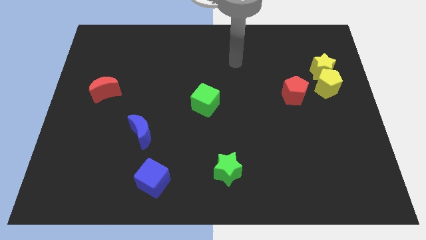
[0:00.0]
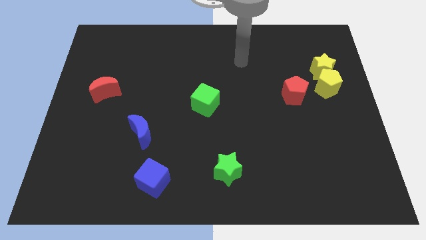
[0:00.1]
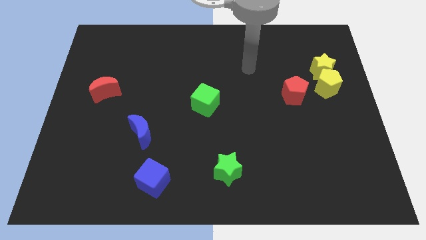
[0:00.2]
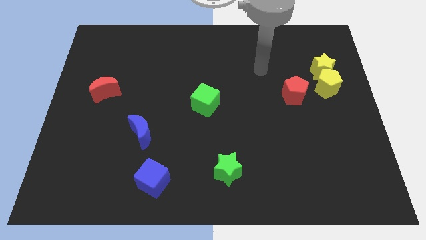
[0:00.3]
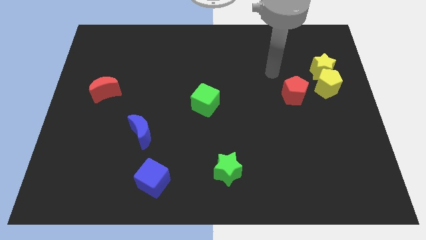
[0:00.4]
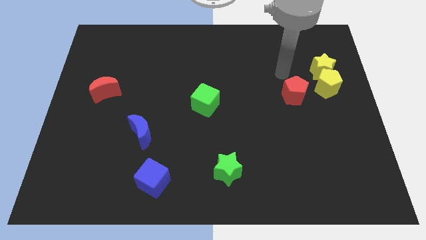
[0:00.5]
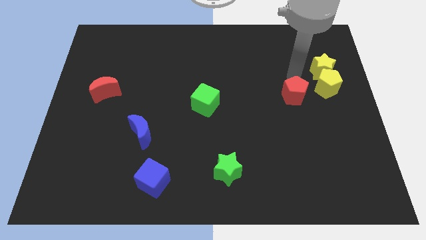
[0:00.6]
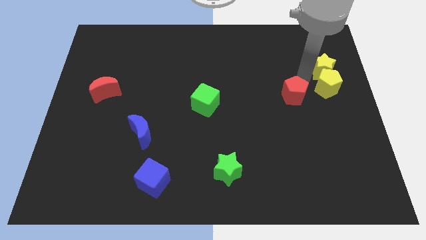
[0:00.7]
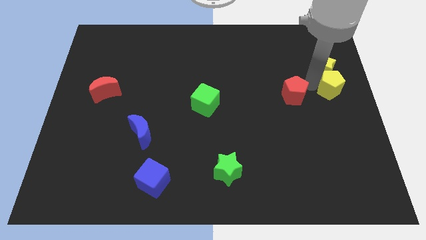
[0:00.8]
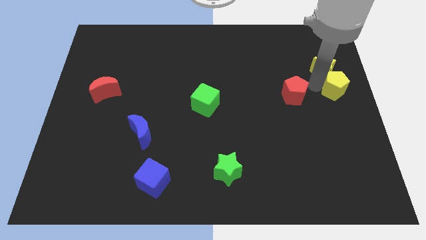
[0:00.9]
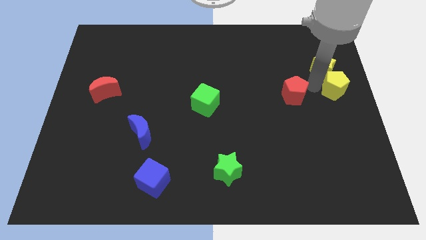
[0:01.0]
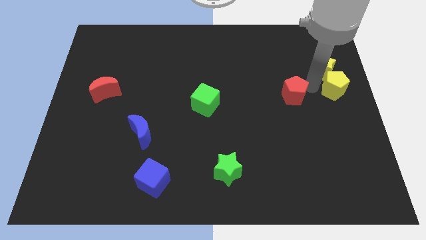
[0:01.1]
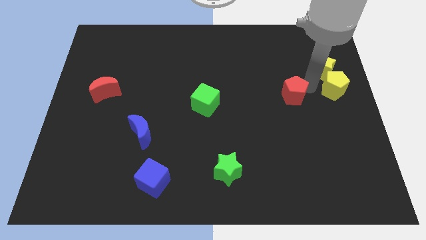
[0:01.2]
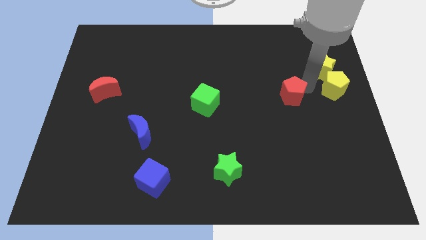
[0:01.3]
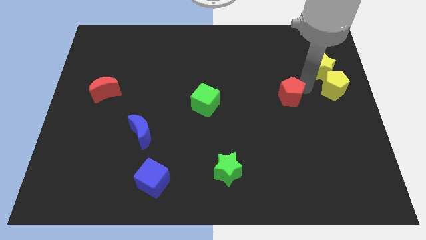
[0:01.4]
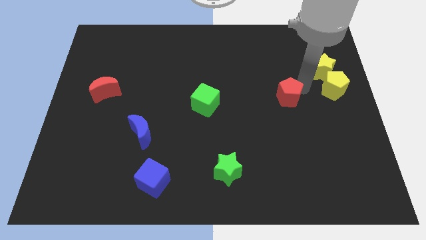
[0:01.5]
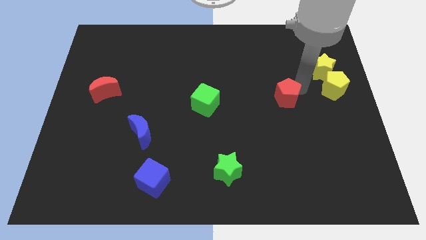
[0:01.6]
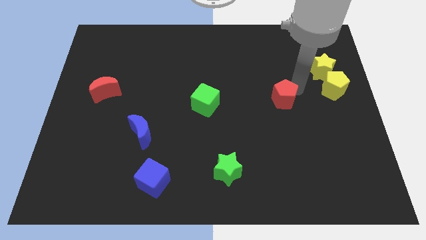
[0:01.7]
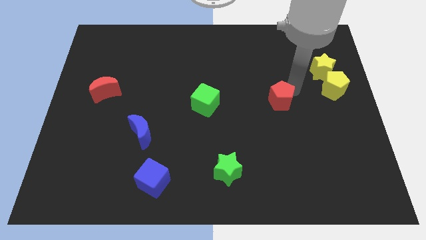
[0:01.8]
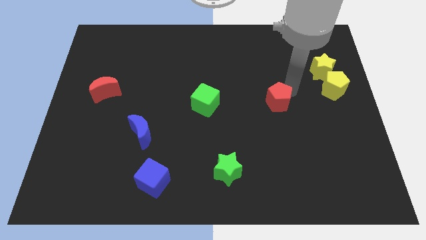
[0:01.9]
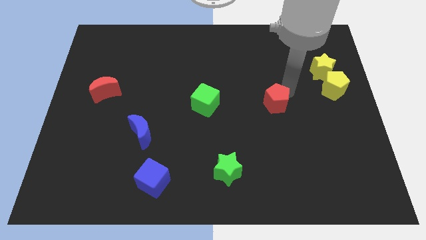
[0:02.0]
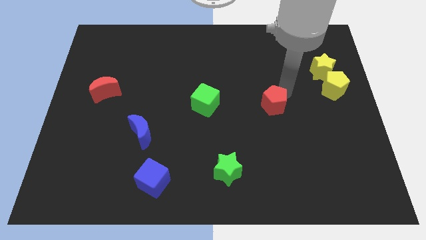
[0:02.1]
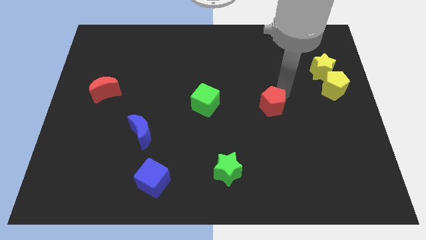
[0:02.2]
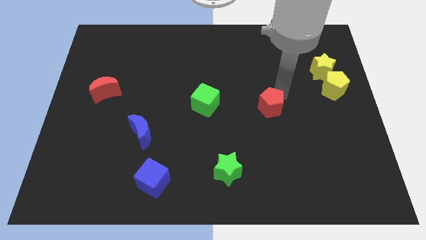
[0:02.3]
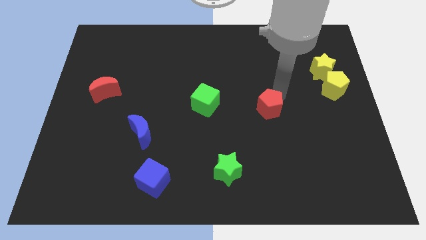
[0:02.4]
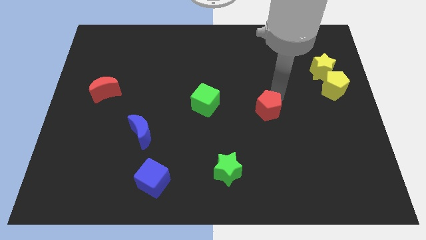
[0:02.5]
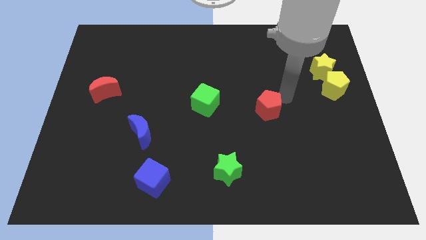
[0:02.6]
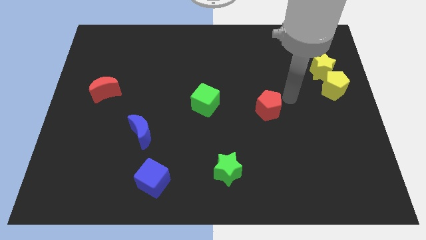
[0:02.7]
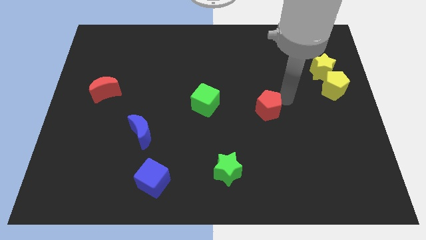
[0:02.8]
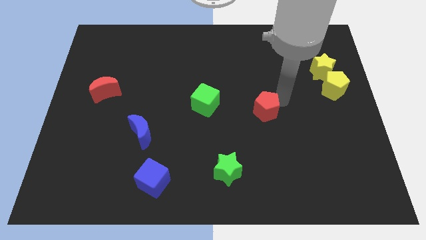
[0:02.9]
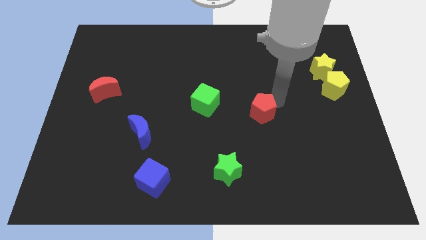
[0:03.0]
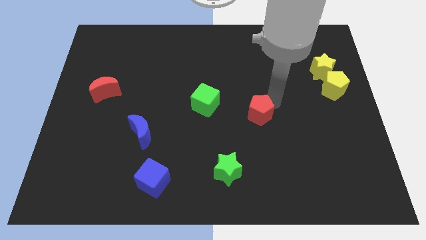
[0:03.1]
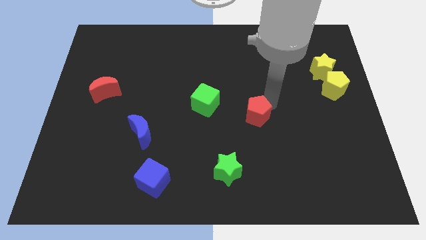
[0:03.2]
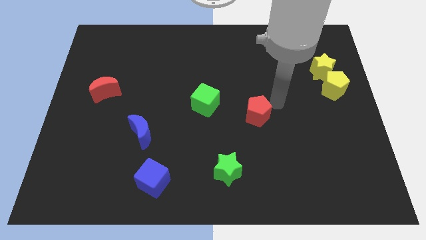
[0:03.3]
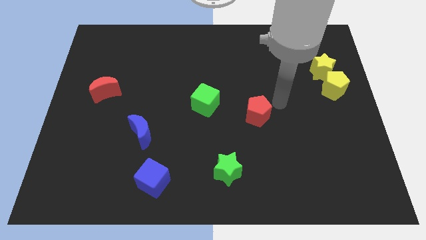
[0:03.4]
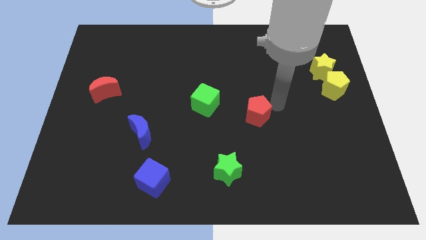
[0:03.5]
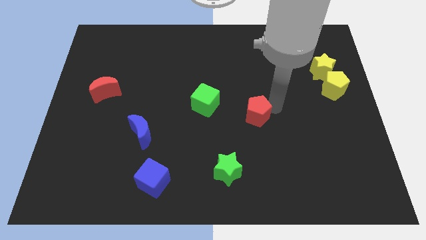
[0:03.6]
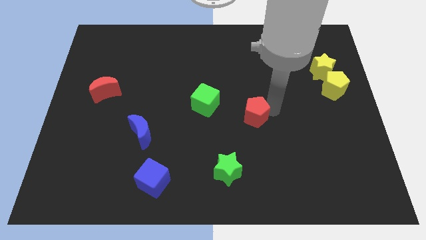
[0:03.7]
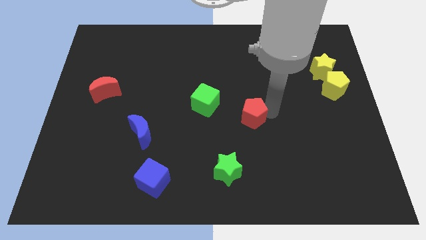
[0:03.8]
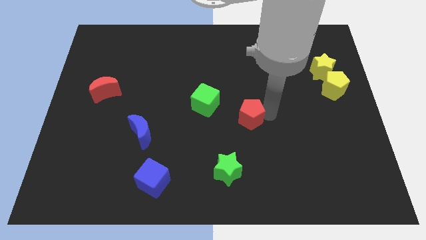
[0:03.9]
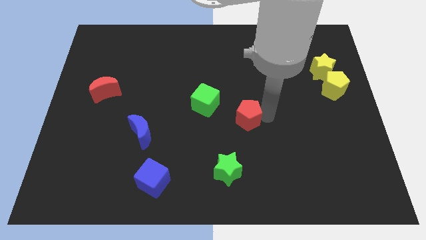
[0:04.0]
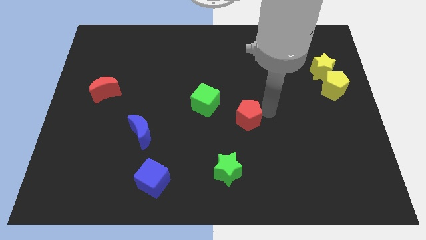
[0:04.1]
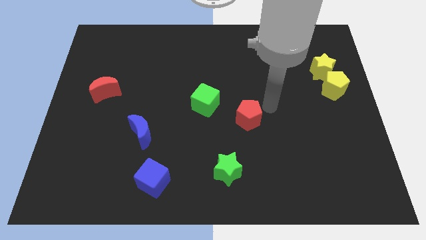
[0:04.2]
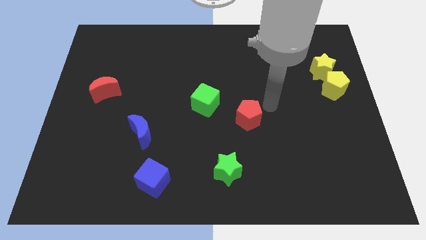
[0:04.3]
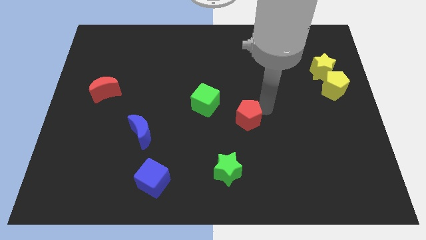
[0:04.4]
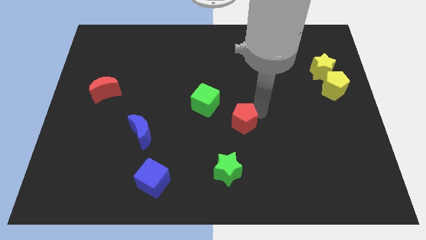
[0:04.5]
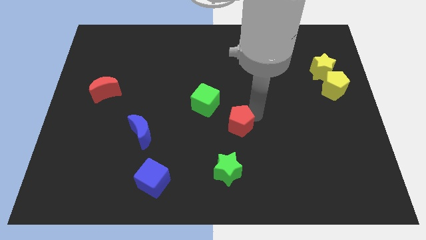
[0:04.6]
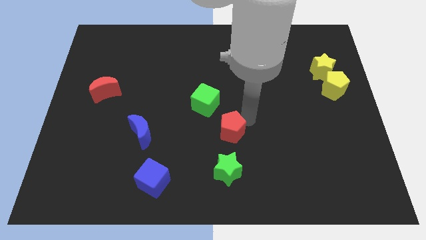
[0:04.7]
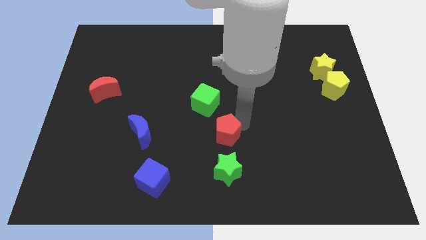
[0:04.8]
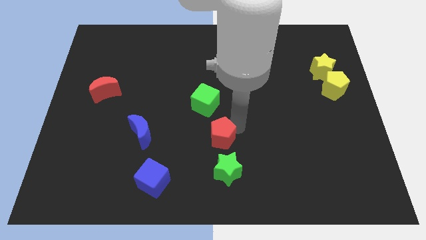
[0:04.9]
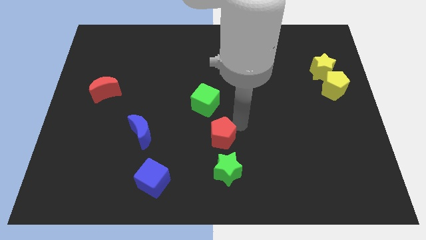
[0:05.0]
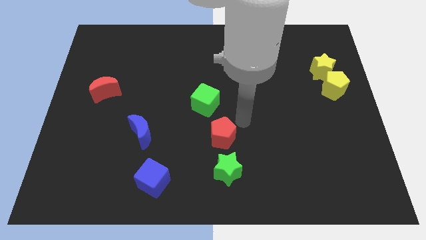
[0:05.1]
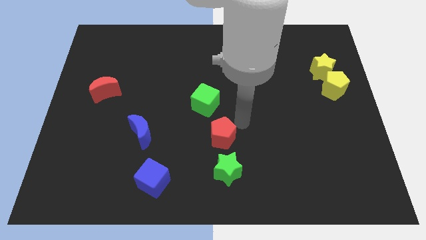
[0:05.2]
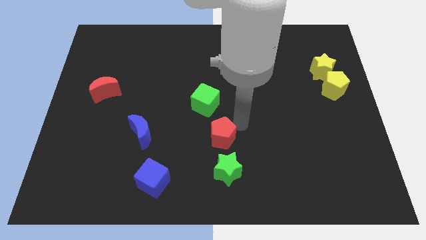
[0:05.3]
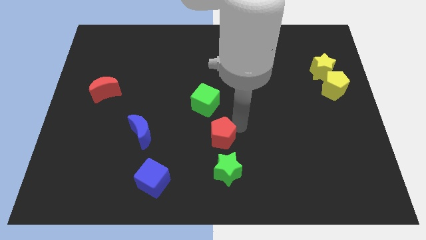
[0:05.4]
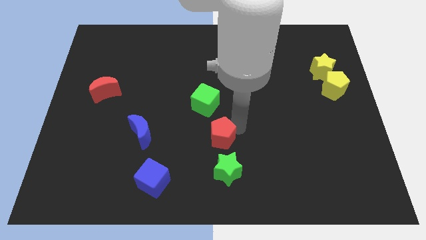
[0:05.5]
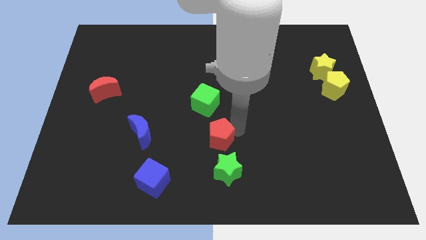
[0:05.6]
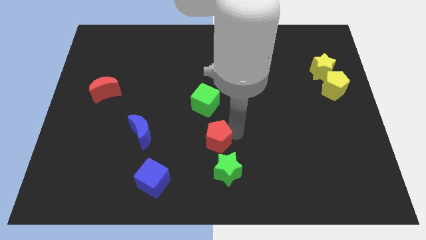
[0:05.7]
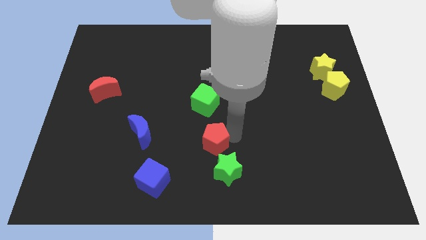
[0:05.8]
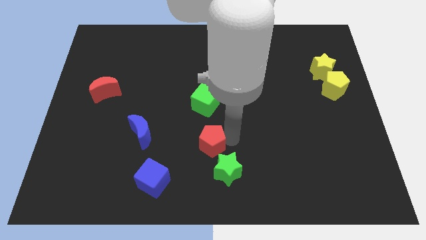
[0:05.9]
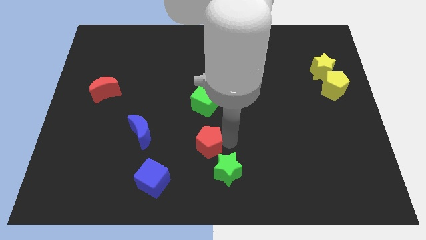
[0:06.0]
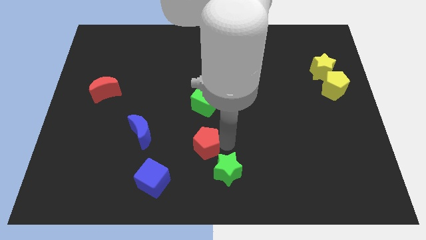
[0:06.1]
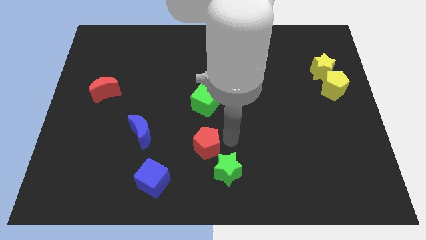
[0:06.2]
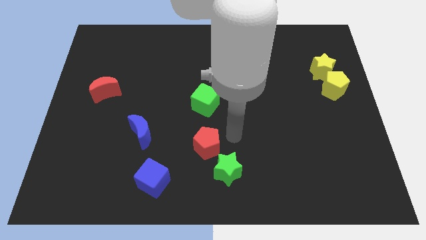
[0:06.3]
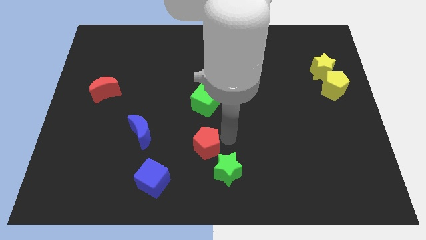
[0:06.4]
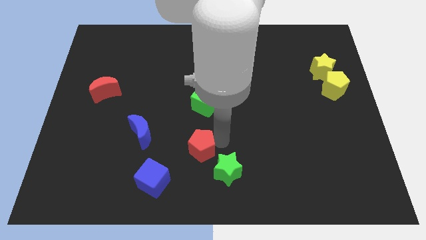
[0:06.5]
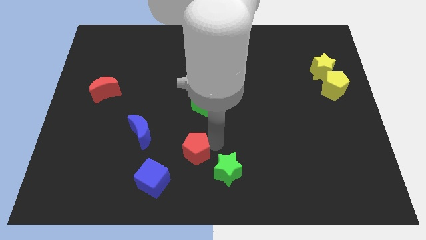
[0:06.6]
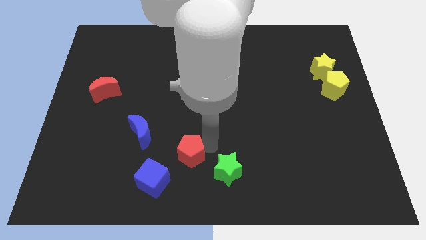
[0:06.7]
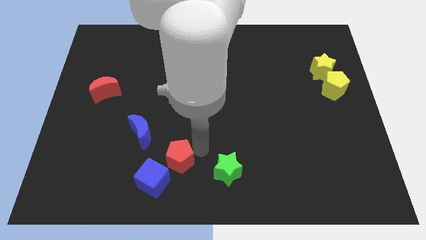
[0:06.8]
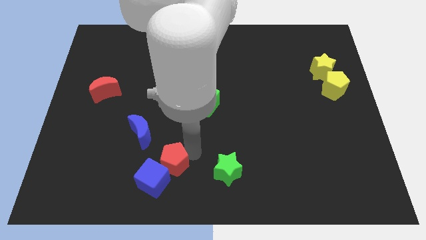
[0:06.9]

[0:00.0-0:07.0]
move the red pentagon towards the blue cube
